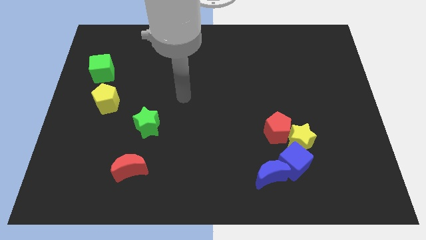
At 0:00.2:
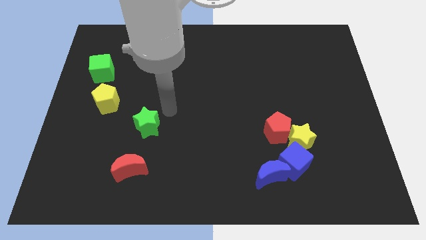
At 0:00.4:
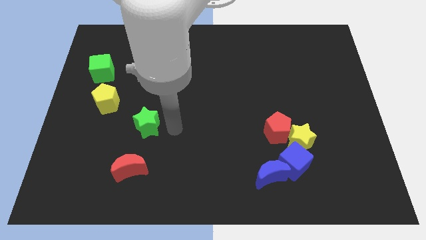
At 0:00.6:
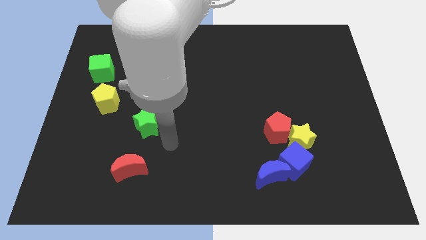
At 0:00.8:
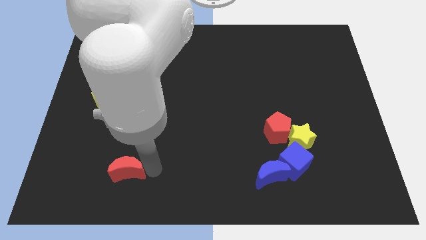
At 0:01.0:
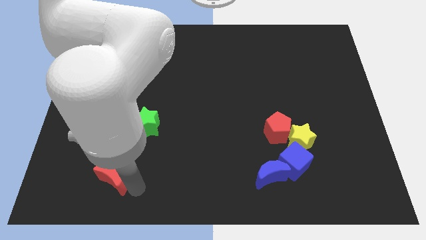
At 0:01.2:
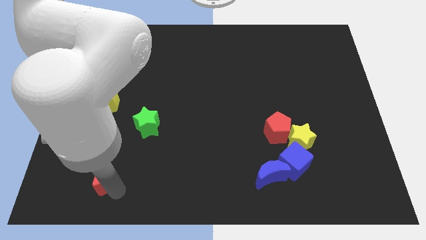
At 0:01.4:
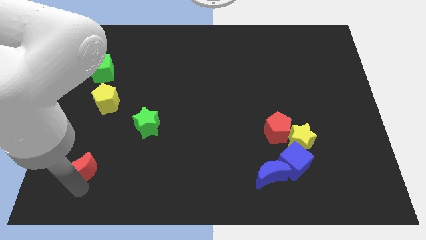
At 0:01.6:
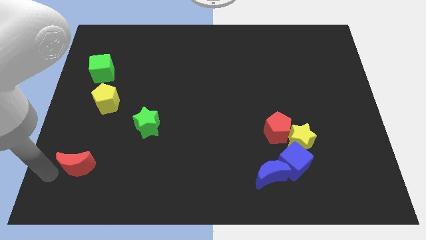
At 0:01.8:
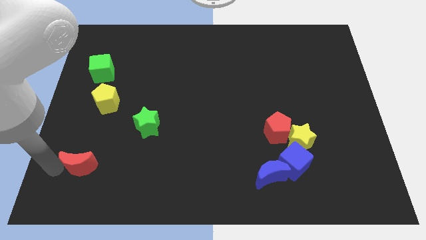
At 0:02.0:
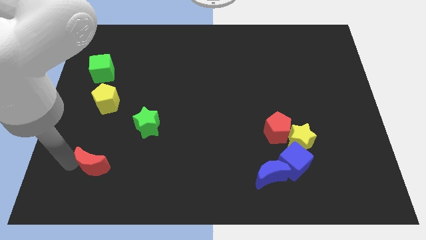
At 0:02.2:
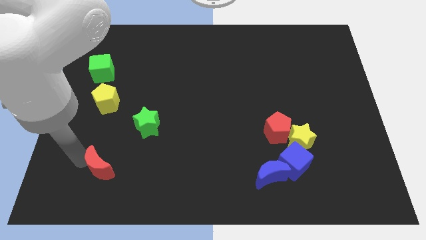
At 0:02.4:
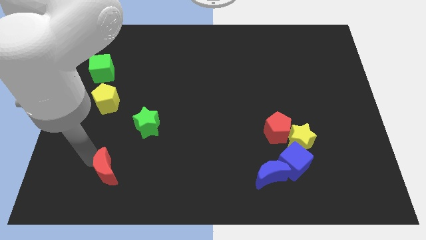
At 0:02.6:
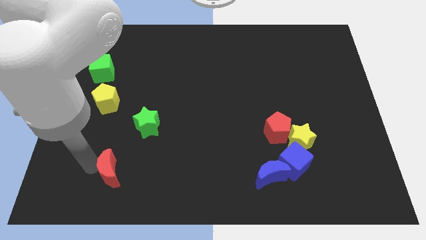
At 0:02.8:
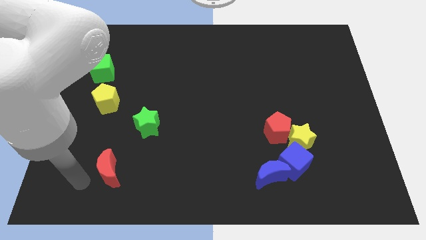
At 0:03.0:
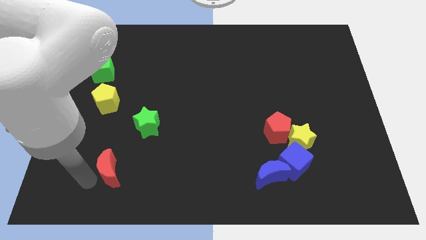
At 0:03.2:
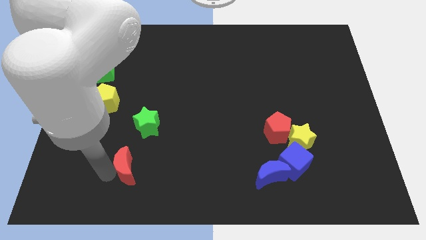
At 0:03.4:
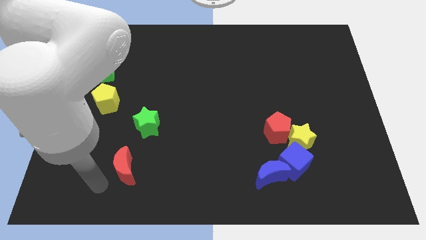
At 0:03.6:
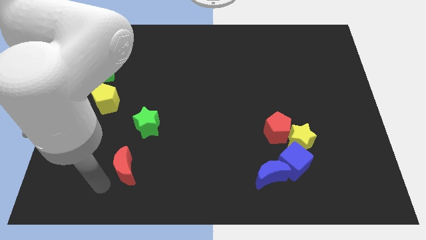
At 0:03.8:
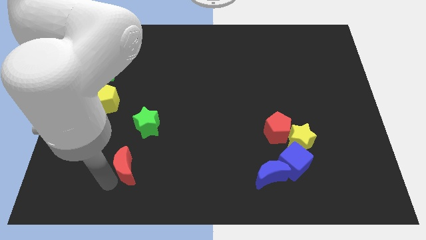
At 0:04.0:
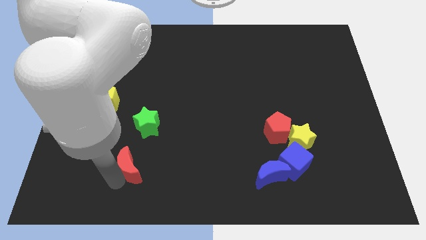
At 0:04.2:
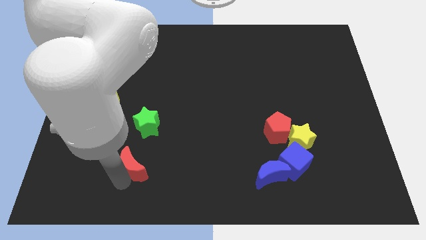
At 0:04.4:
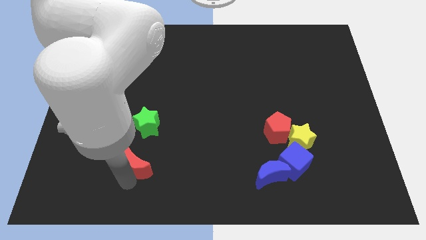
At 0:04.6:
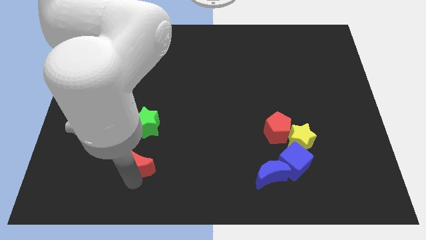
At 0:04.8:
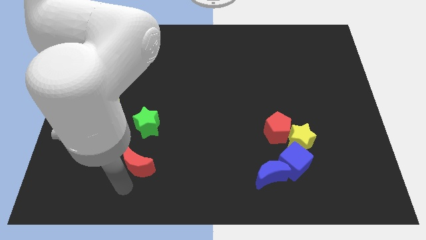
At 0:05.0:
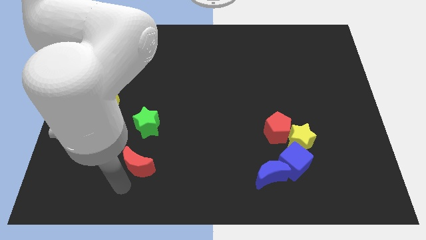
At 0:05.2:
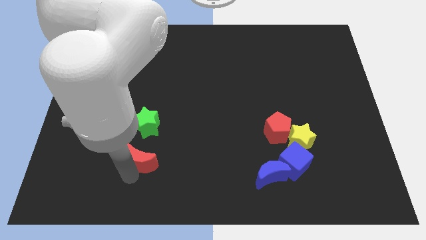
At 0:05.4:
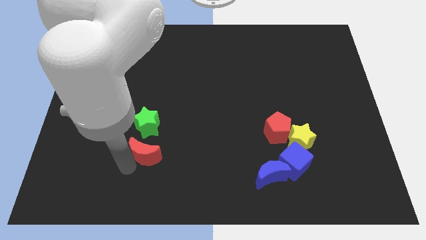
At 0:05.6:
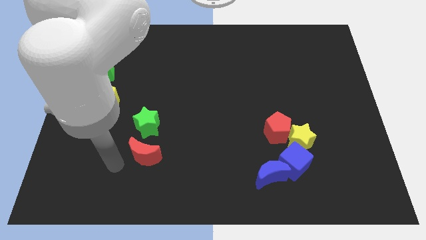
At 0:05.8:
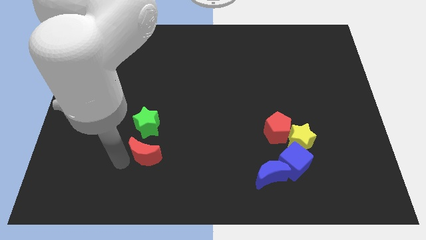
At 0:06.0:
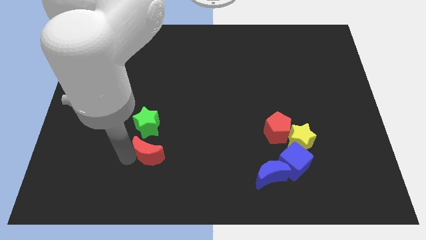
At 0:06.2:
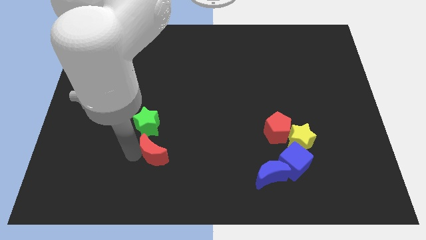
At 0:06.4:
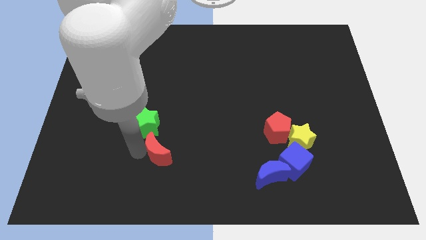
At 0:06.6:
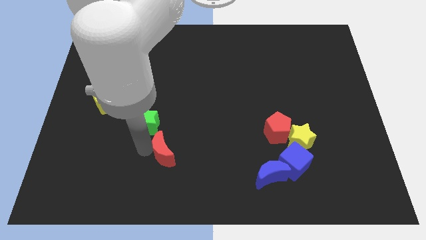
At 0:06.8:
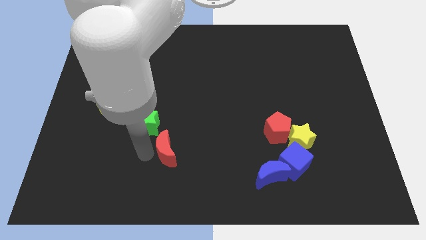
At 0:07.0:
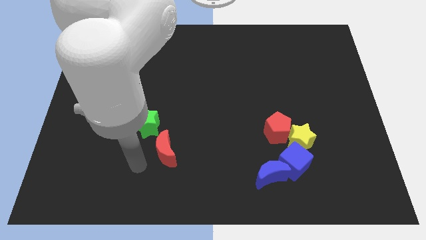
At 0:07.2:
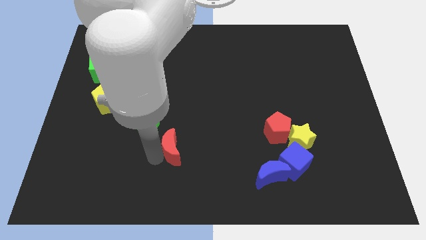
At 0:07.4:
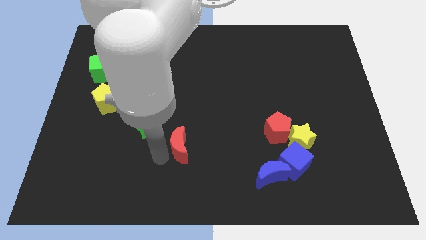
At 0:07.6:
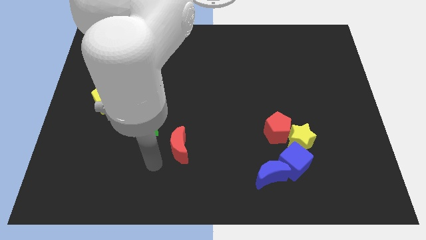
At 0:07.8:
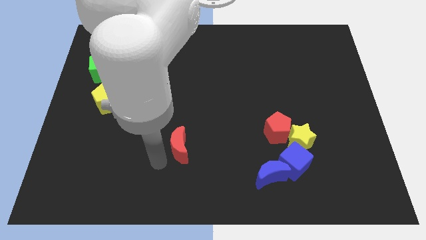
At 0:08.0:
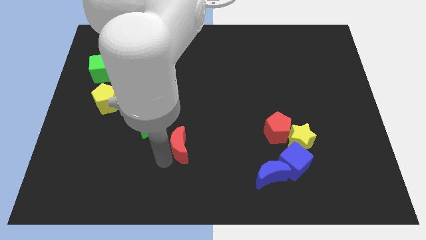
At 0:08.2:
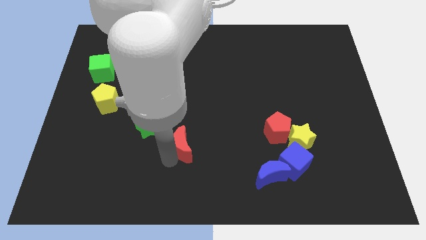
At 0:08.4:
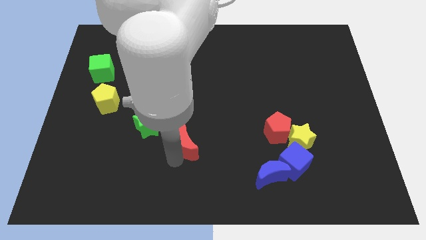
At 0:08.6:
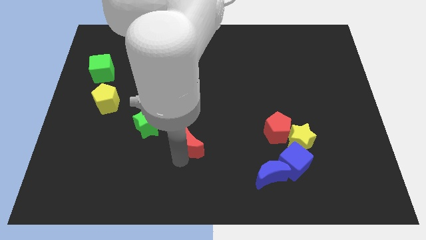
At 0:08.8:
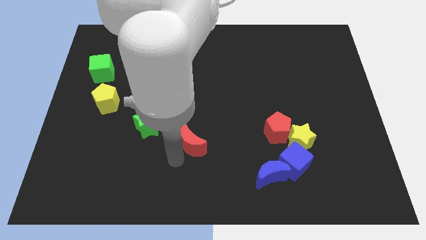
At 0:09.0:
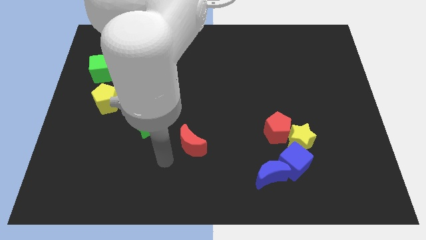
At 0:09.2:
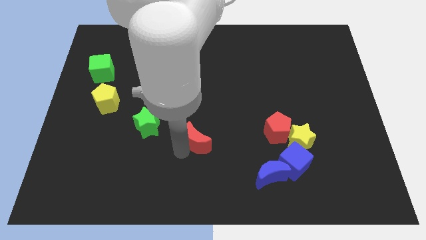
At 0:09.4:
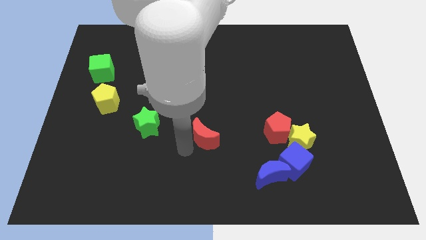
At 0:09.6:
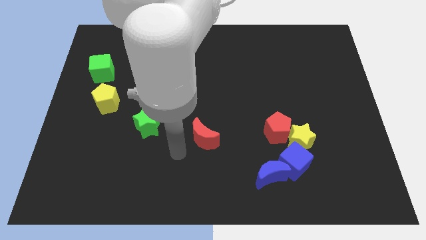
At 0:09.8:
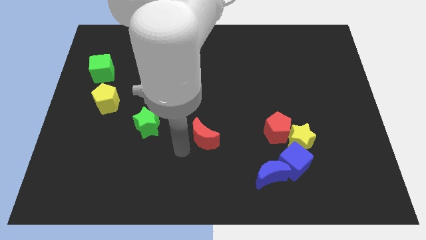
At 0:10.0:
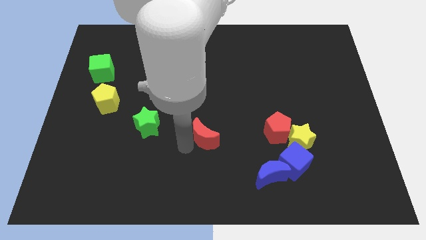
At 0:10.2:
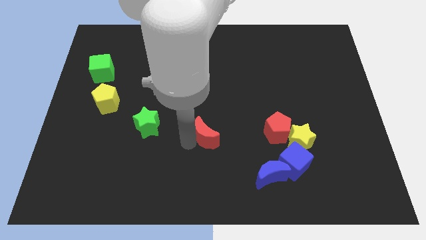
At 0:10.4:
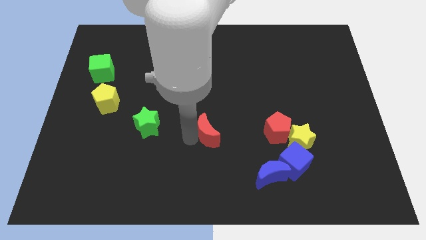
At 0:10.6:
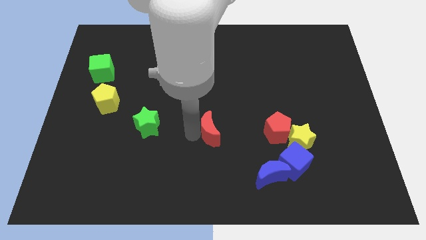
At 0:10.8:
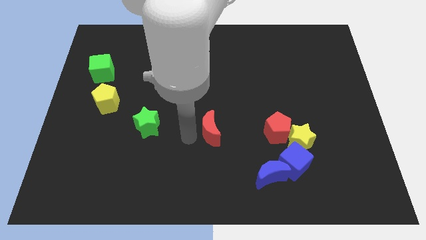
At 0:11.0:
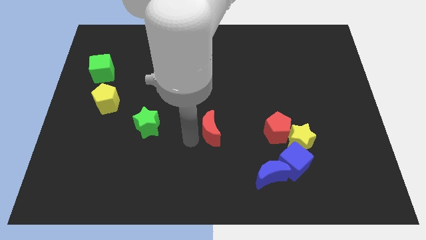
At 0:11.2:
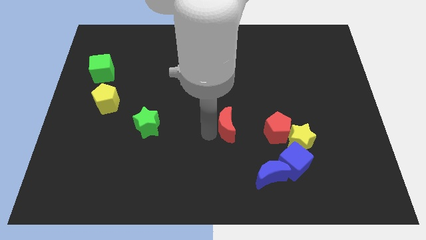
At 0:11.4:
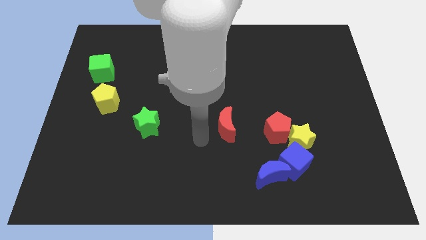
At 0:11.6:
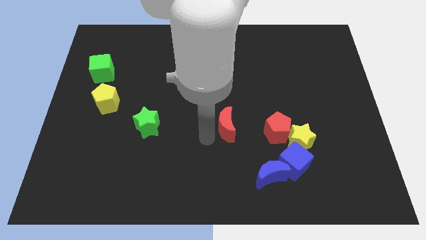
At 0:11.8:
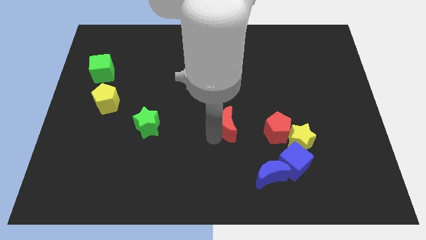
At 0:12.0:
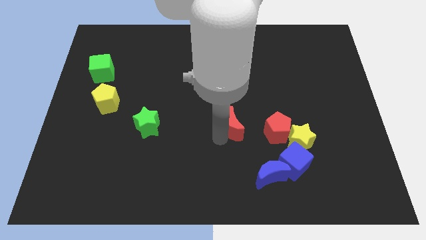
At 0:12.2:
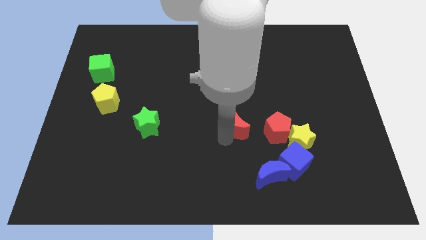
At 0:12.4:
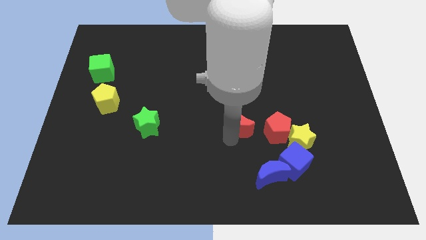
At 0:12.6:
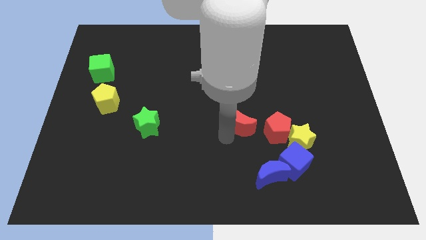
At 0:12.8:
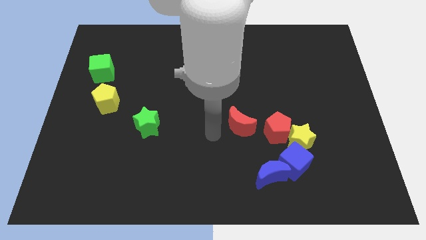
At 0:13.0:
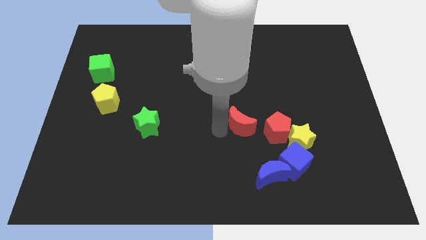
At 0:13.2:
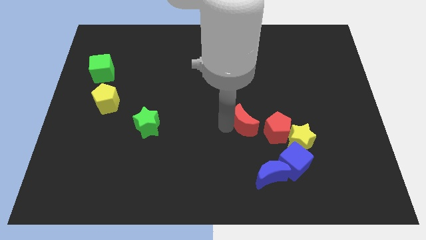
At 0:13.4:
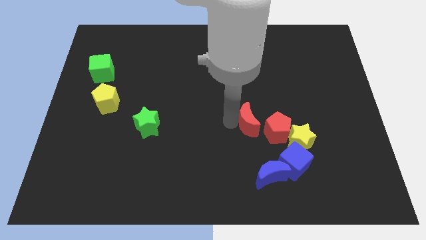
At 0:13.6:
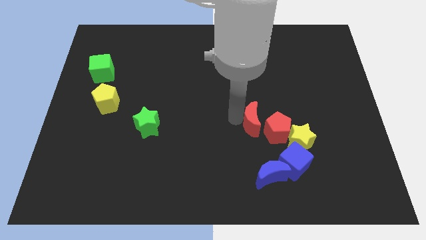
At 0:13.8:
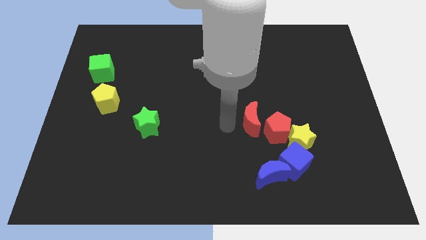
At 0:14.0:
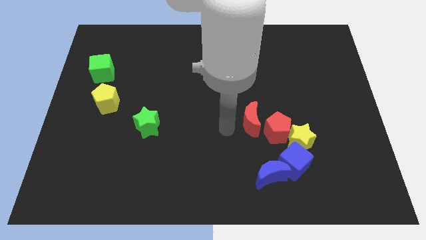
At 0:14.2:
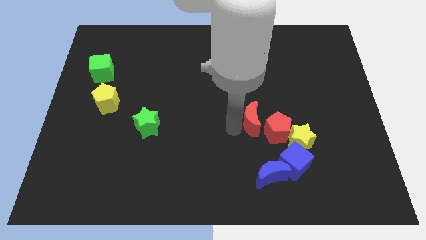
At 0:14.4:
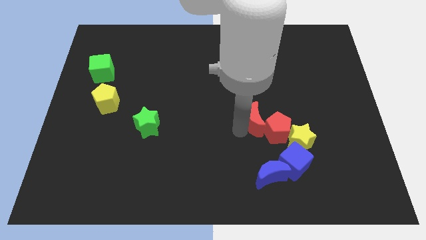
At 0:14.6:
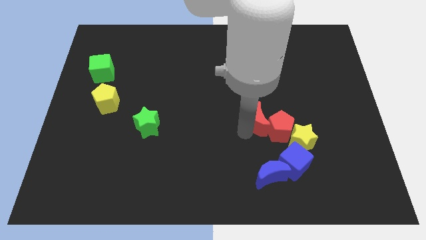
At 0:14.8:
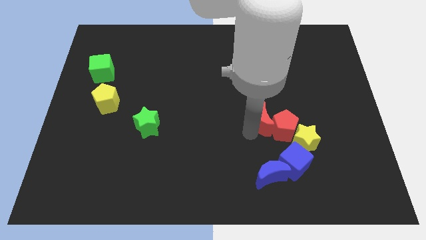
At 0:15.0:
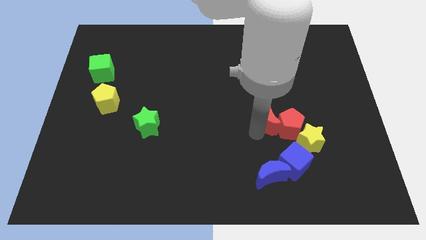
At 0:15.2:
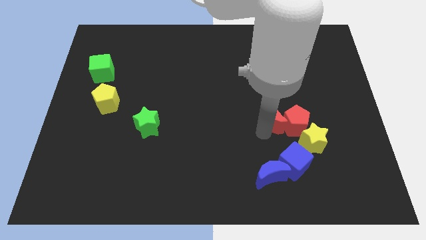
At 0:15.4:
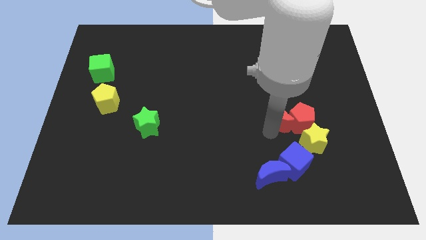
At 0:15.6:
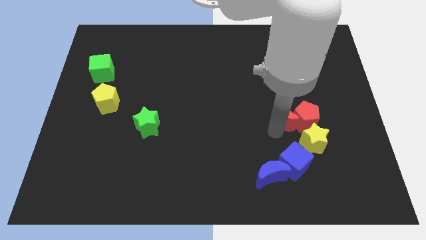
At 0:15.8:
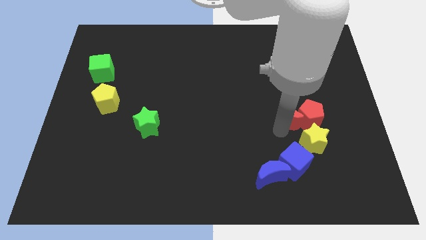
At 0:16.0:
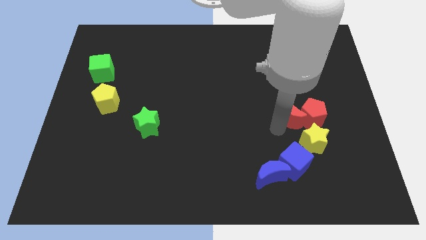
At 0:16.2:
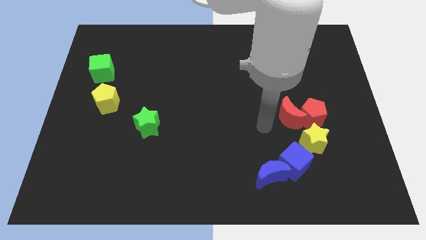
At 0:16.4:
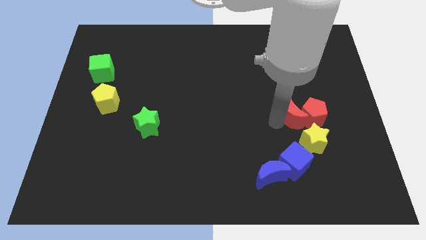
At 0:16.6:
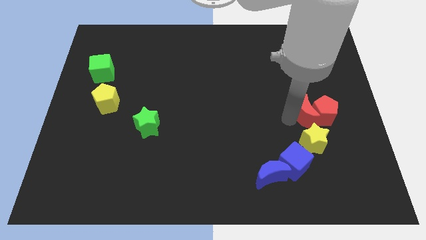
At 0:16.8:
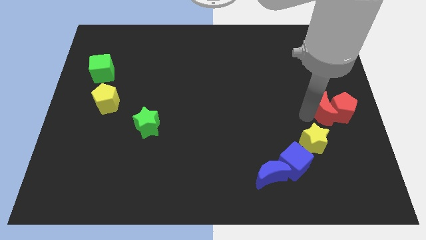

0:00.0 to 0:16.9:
put the red moon to the center right

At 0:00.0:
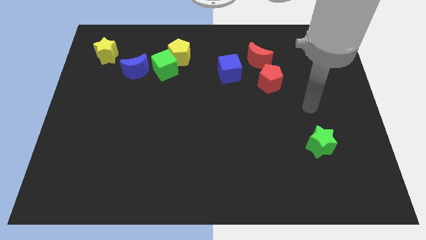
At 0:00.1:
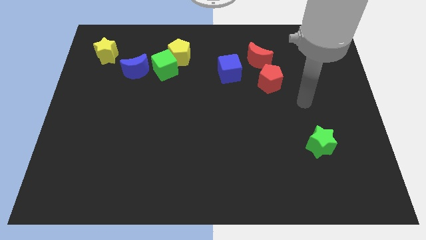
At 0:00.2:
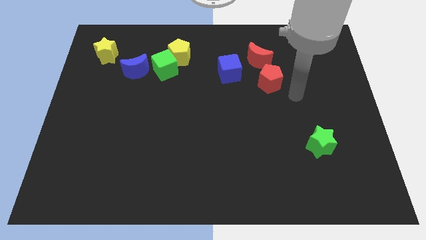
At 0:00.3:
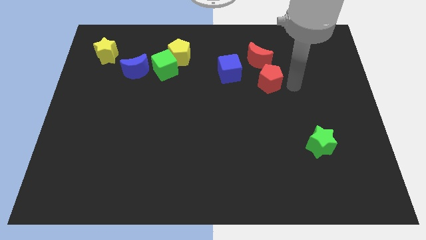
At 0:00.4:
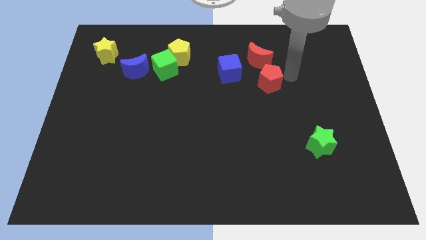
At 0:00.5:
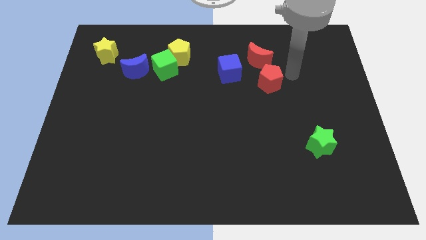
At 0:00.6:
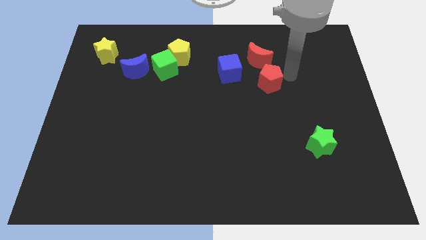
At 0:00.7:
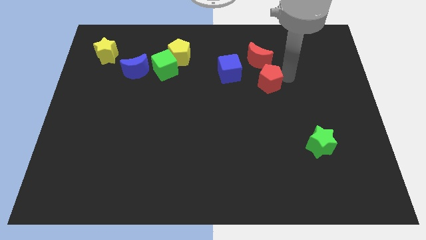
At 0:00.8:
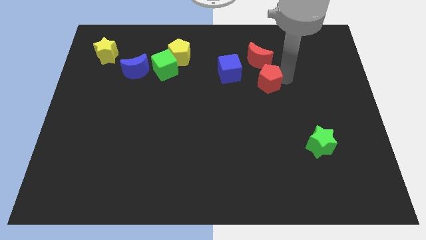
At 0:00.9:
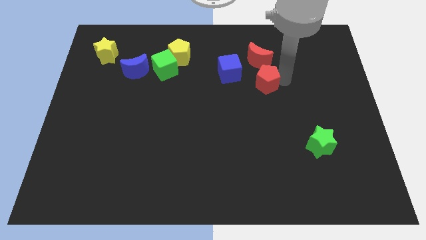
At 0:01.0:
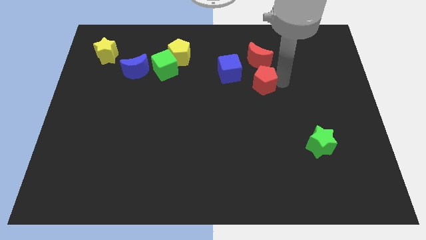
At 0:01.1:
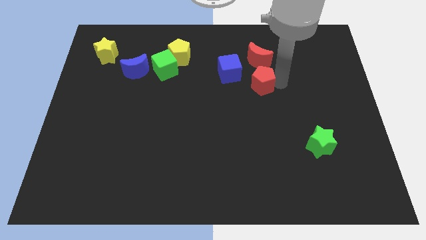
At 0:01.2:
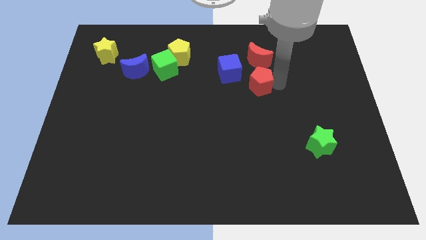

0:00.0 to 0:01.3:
slide the red pentagon to the middle
